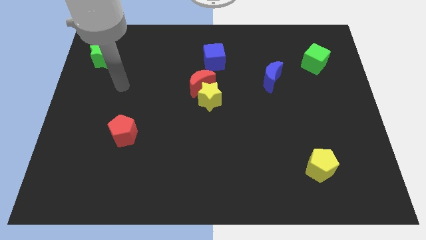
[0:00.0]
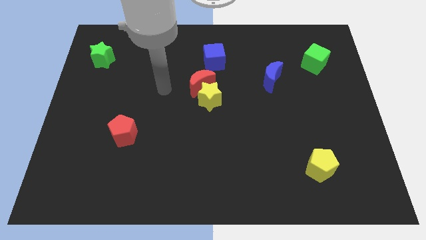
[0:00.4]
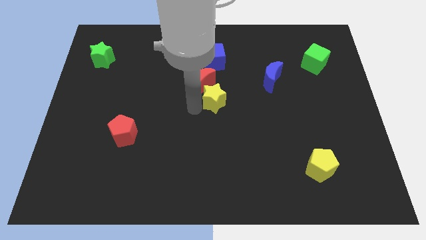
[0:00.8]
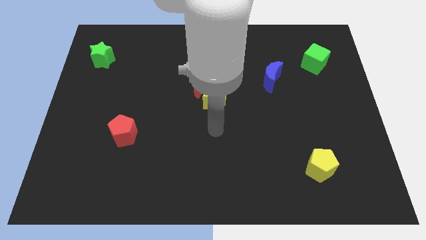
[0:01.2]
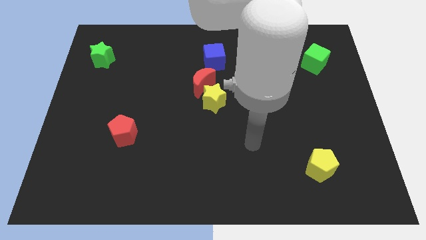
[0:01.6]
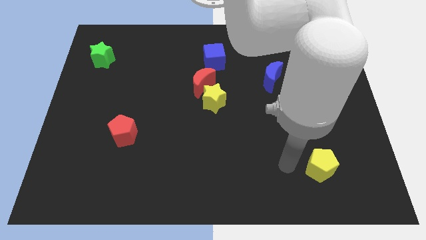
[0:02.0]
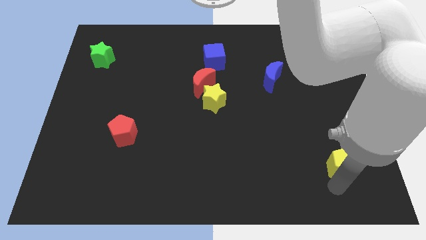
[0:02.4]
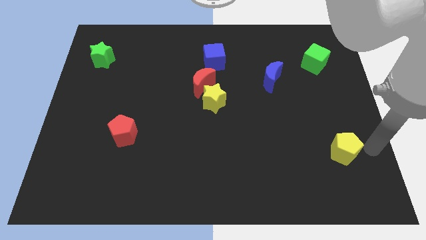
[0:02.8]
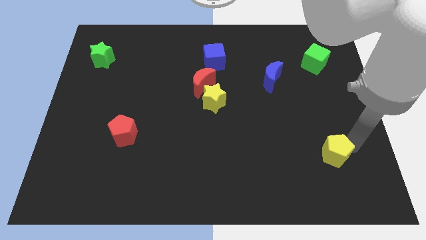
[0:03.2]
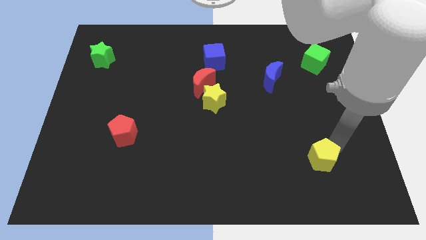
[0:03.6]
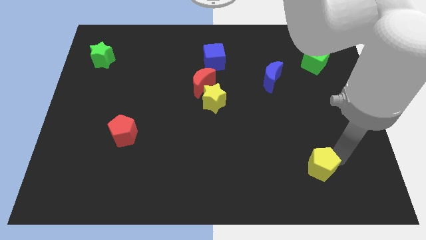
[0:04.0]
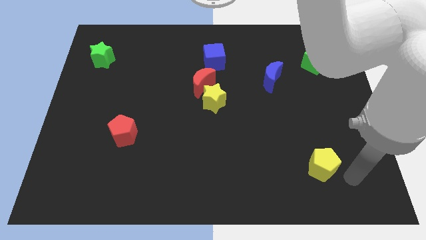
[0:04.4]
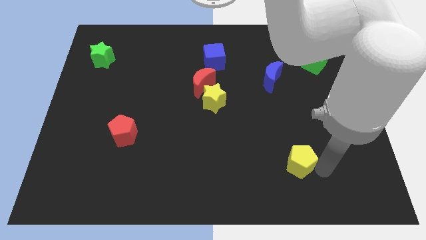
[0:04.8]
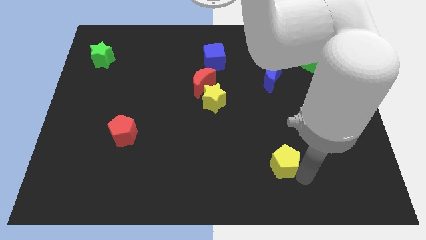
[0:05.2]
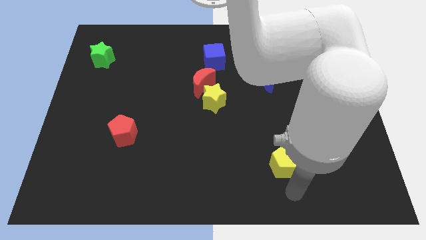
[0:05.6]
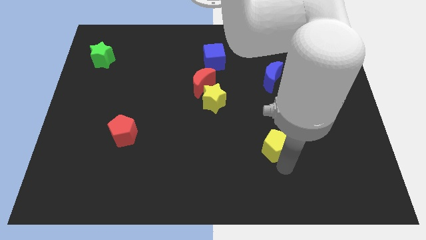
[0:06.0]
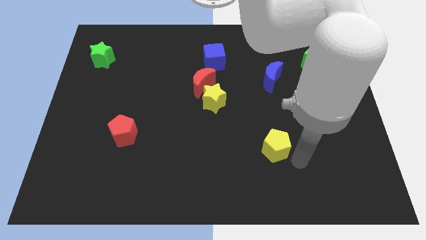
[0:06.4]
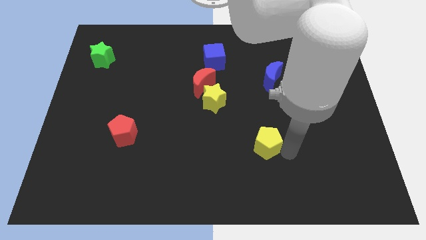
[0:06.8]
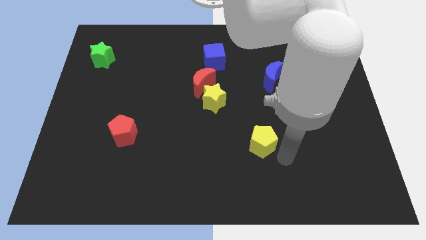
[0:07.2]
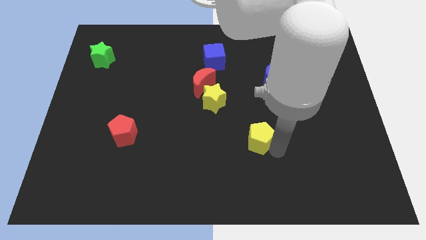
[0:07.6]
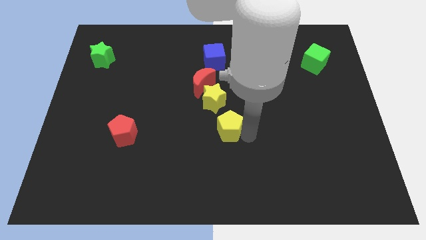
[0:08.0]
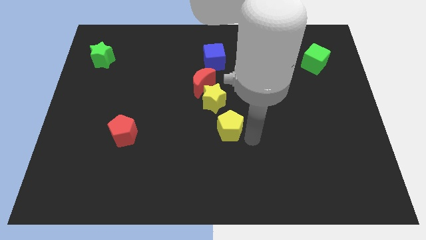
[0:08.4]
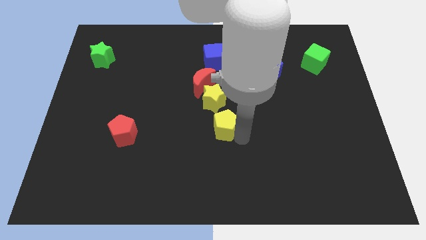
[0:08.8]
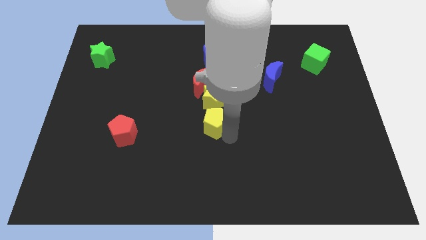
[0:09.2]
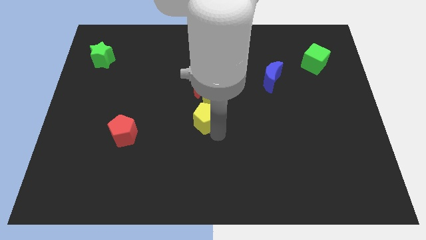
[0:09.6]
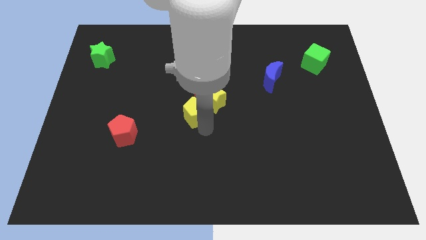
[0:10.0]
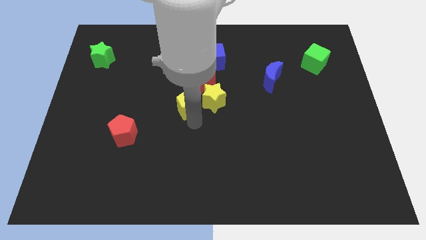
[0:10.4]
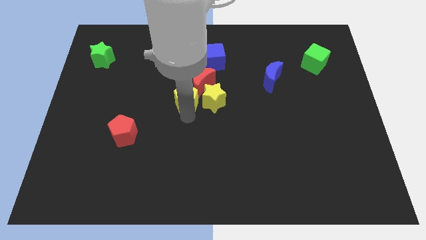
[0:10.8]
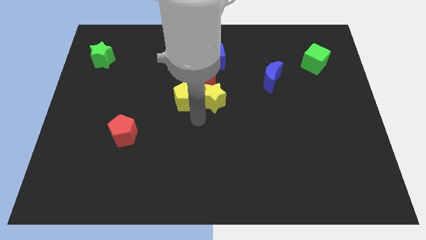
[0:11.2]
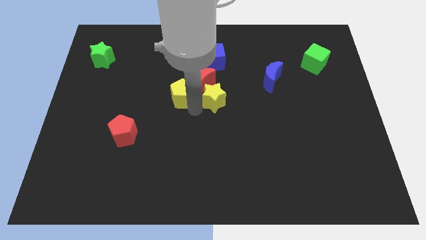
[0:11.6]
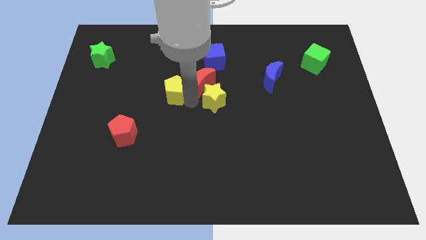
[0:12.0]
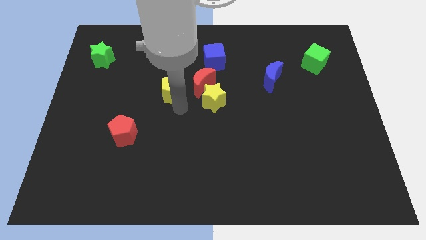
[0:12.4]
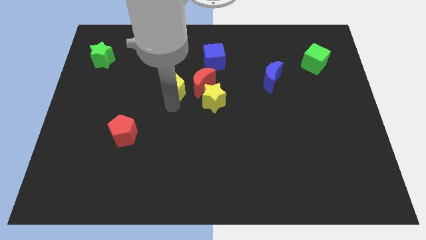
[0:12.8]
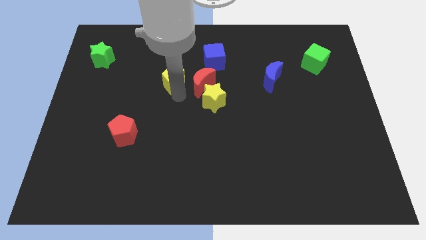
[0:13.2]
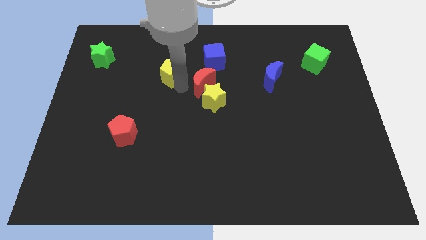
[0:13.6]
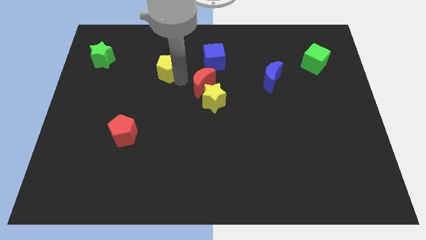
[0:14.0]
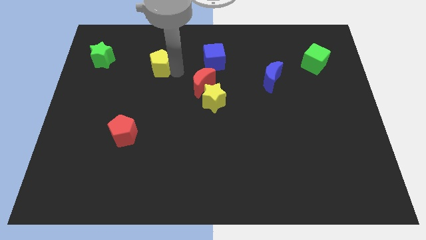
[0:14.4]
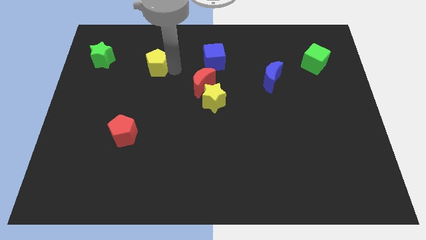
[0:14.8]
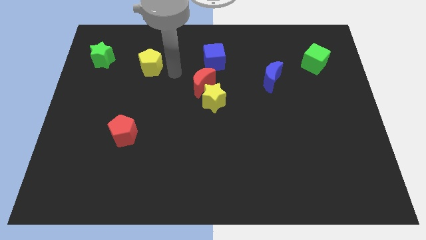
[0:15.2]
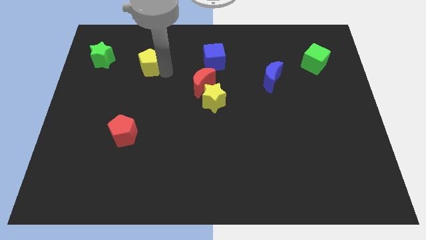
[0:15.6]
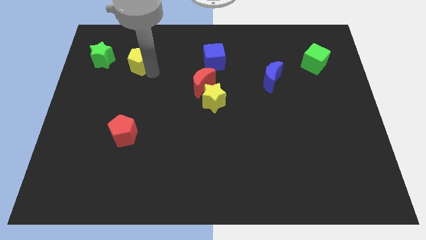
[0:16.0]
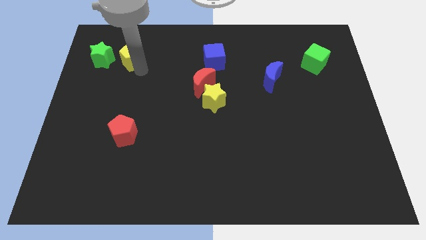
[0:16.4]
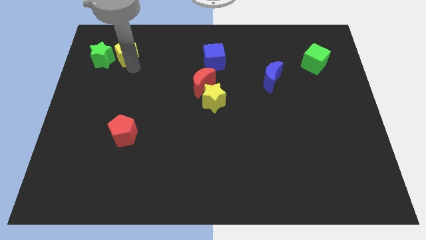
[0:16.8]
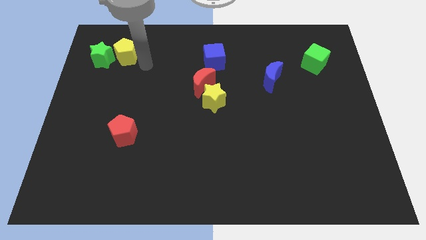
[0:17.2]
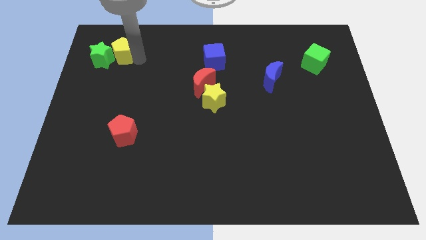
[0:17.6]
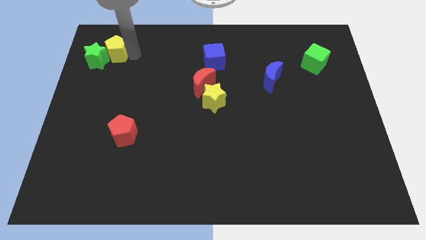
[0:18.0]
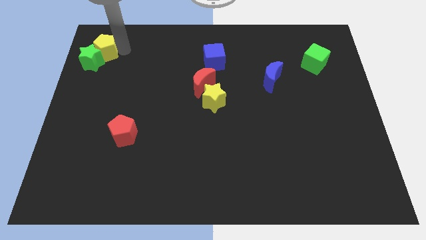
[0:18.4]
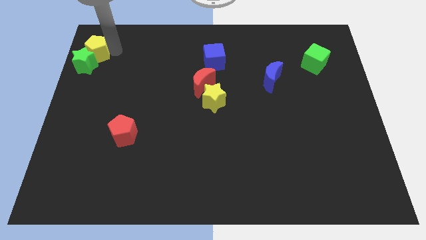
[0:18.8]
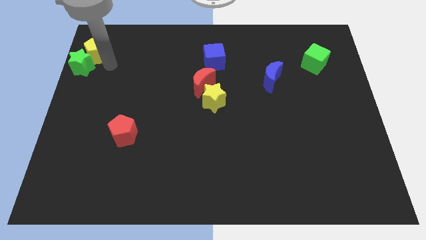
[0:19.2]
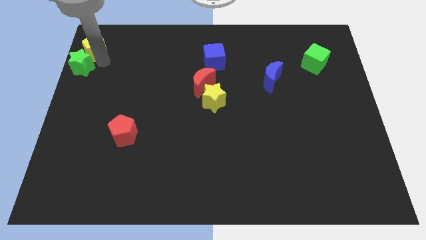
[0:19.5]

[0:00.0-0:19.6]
put the yellow pentagon to the top left corner

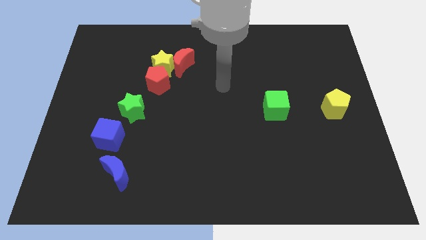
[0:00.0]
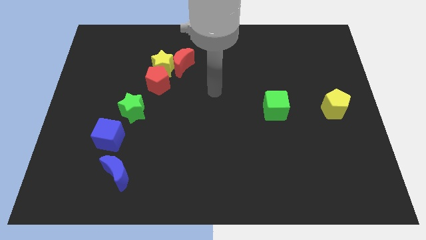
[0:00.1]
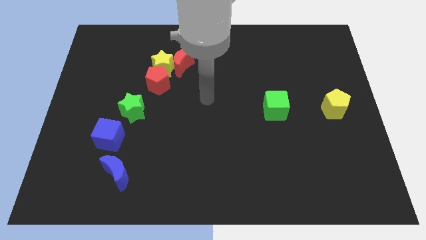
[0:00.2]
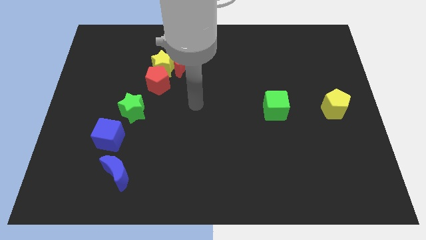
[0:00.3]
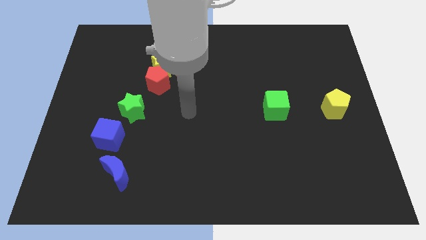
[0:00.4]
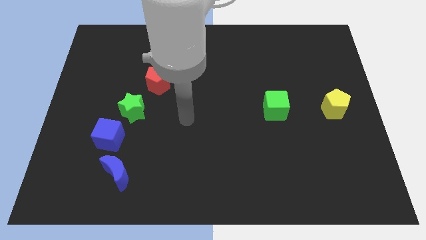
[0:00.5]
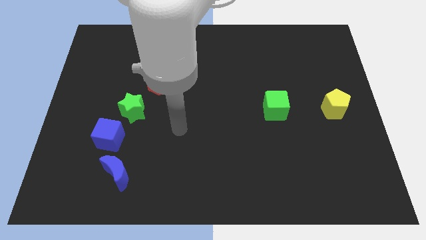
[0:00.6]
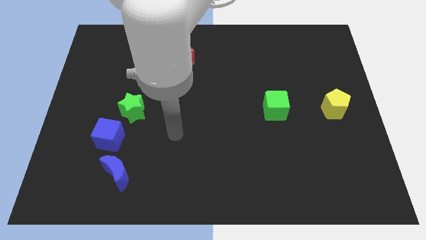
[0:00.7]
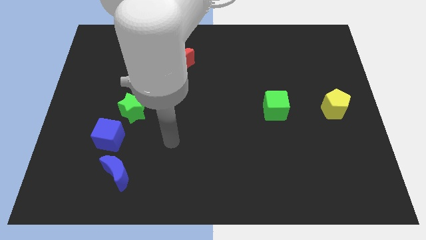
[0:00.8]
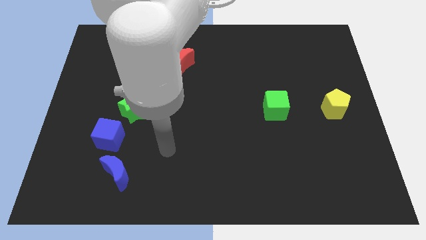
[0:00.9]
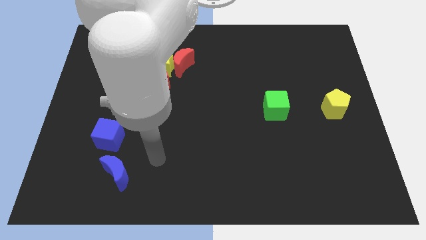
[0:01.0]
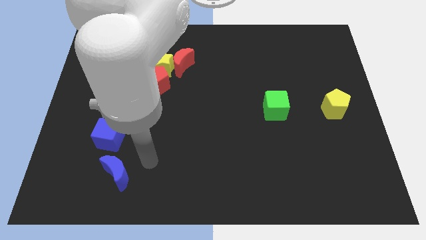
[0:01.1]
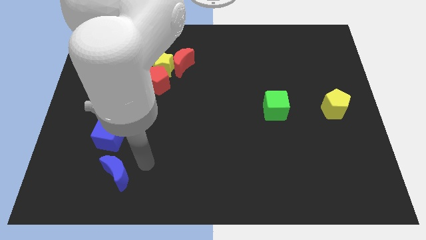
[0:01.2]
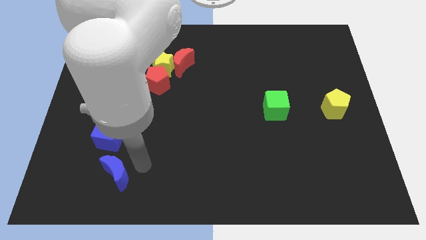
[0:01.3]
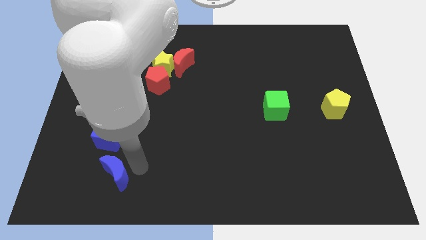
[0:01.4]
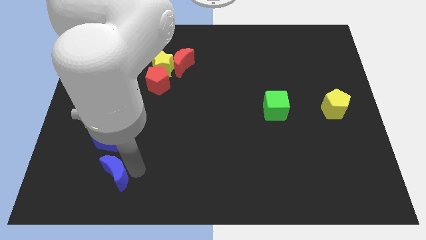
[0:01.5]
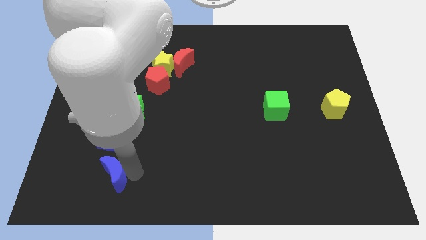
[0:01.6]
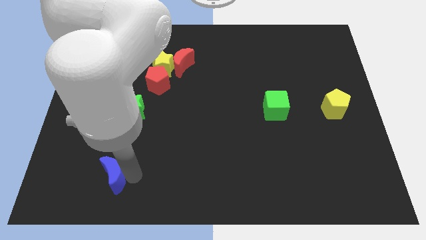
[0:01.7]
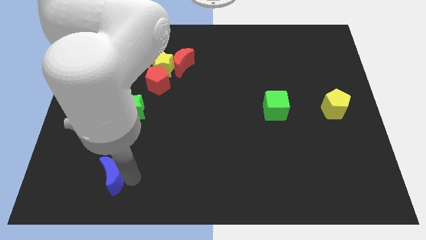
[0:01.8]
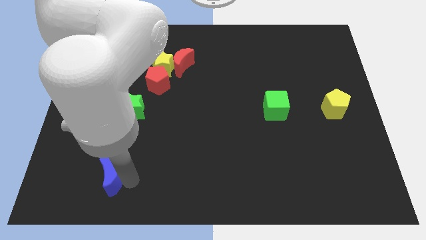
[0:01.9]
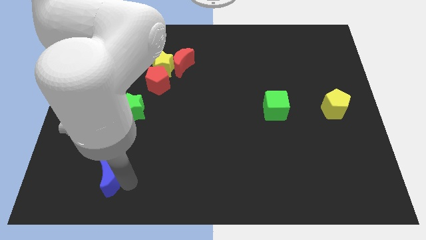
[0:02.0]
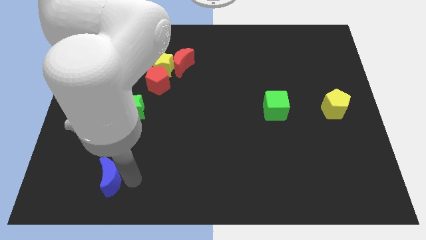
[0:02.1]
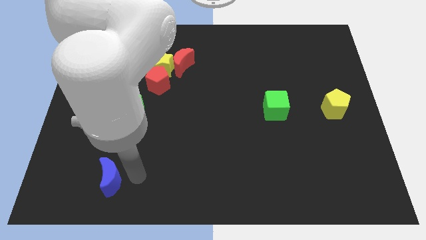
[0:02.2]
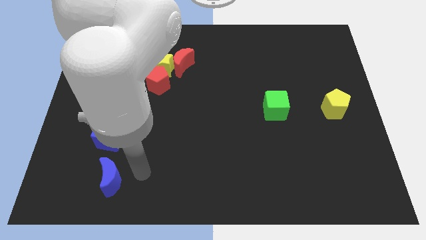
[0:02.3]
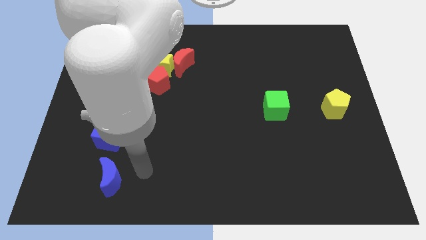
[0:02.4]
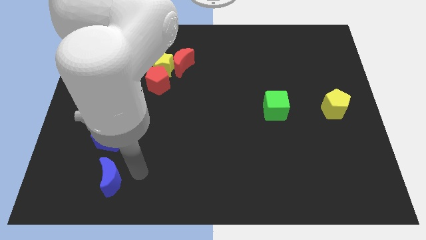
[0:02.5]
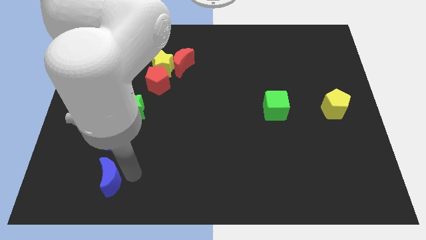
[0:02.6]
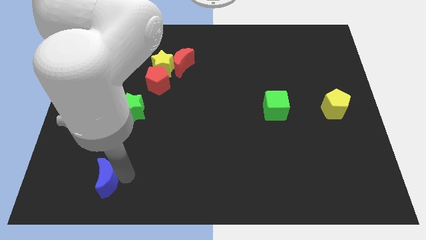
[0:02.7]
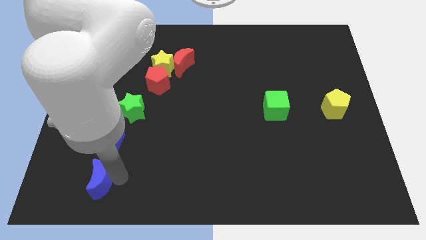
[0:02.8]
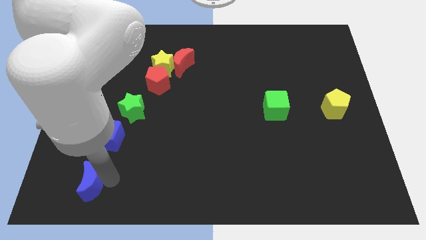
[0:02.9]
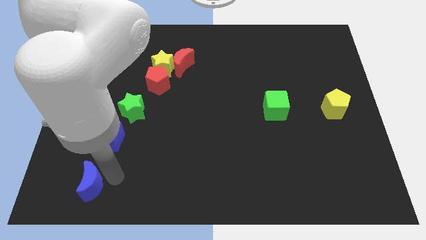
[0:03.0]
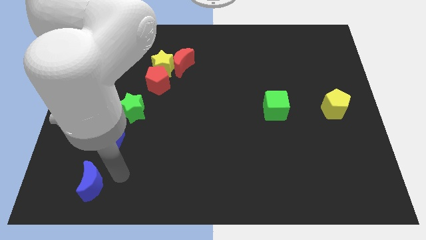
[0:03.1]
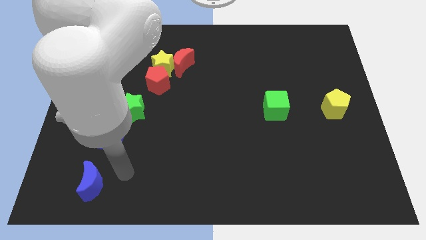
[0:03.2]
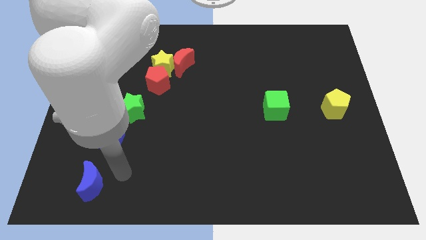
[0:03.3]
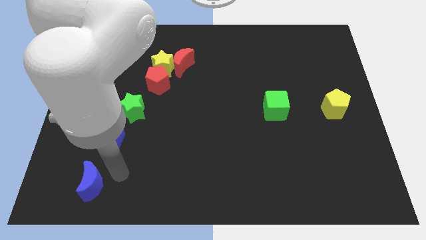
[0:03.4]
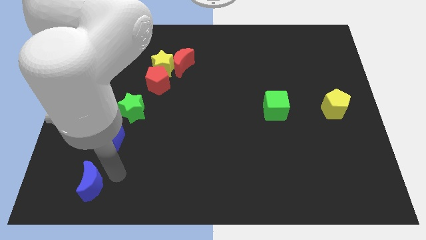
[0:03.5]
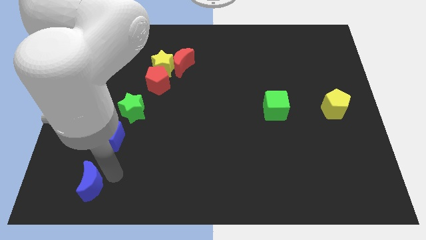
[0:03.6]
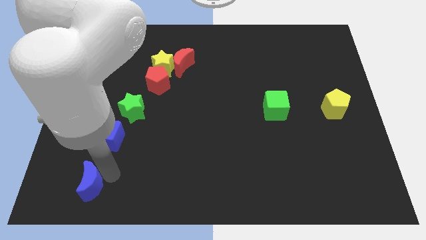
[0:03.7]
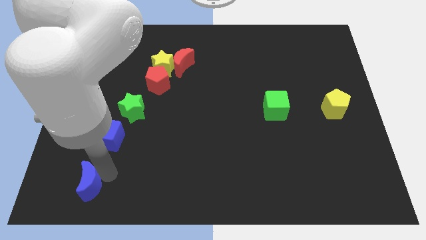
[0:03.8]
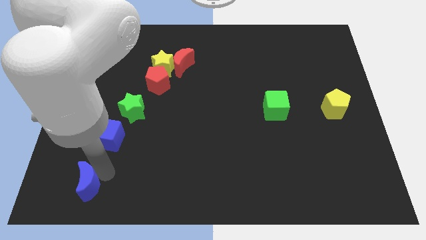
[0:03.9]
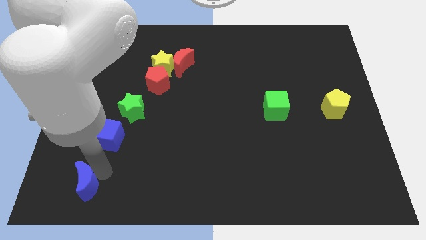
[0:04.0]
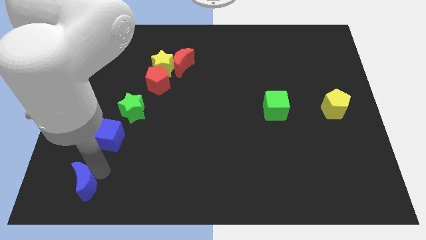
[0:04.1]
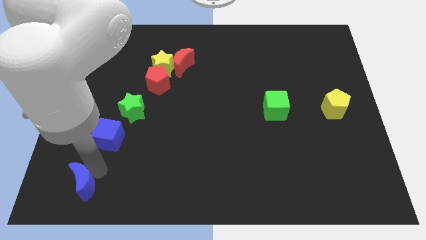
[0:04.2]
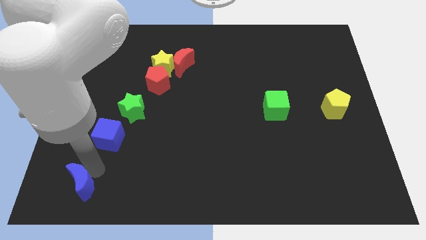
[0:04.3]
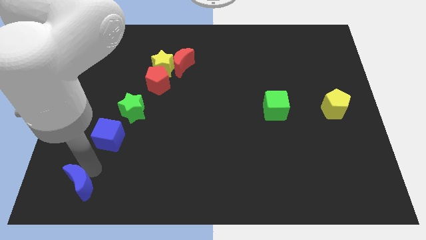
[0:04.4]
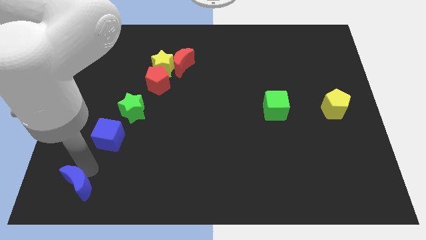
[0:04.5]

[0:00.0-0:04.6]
push the blue moon to the bottom left corner
